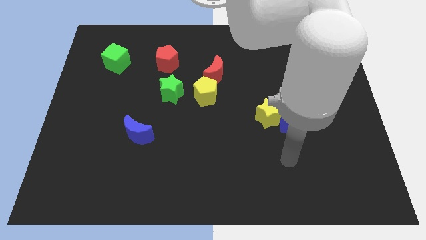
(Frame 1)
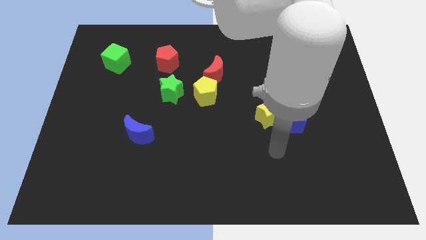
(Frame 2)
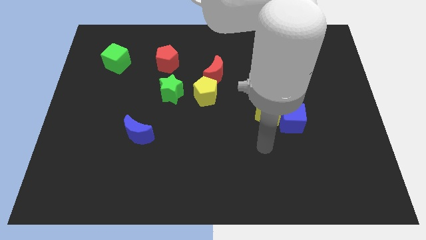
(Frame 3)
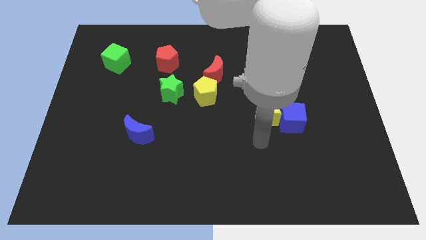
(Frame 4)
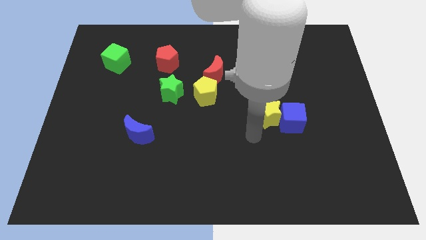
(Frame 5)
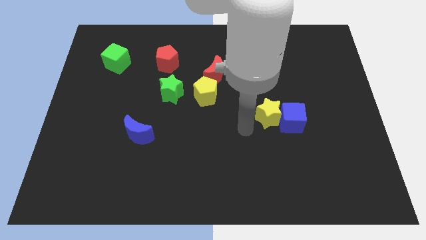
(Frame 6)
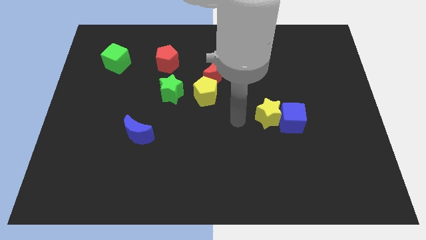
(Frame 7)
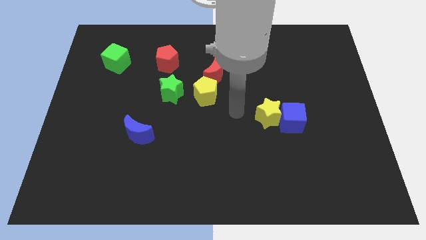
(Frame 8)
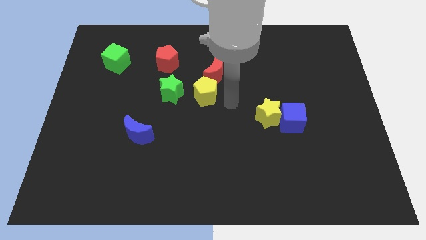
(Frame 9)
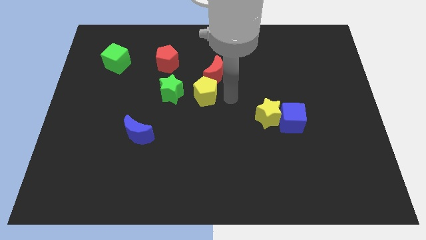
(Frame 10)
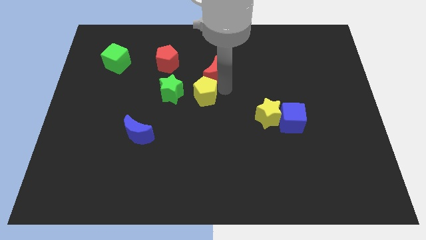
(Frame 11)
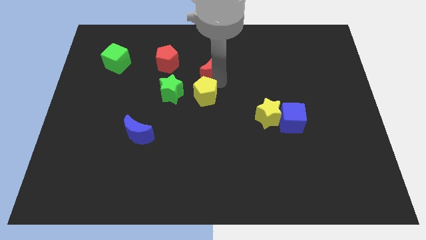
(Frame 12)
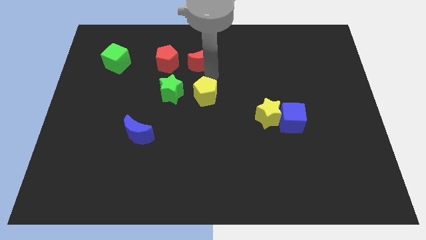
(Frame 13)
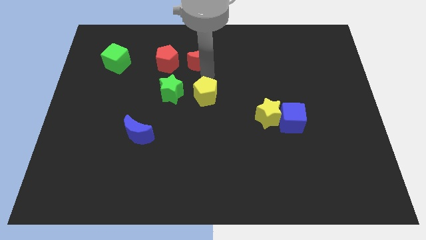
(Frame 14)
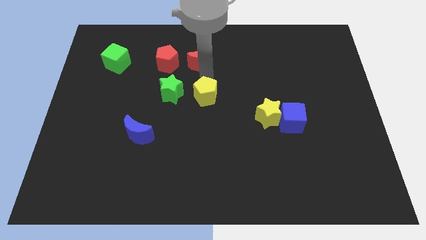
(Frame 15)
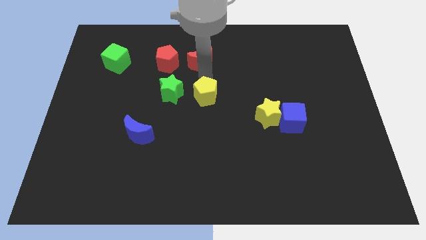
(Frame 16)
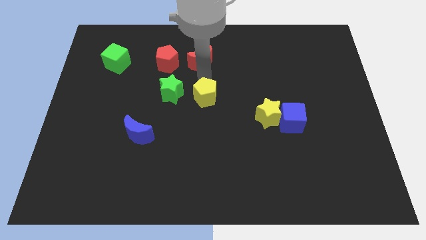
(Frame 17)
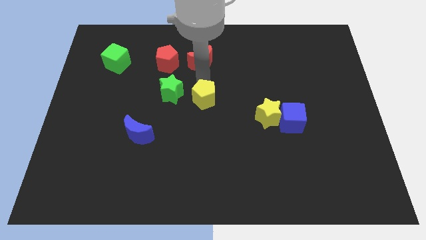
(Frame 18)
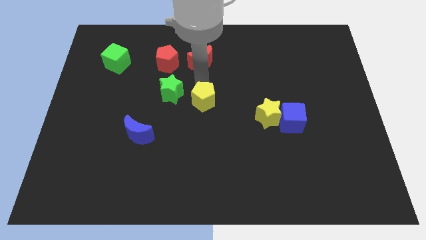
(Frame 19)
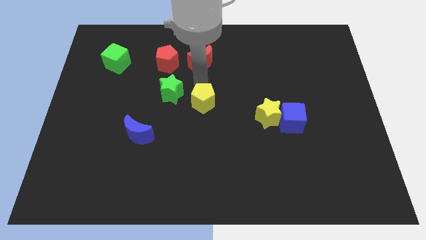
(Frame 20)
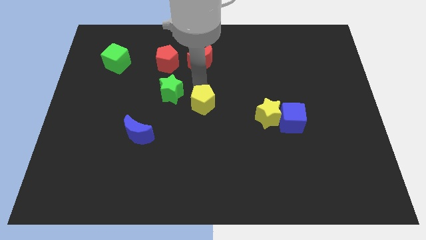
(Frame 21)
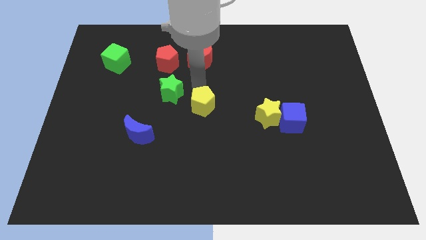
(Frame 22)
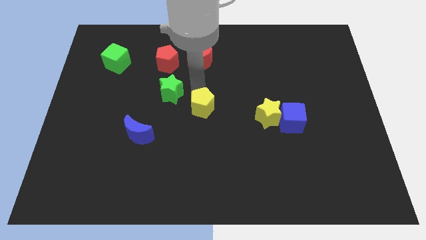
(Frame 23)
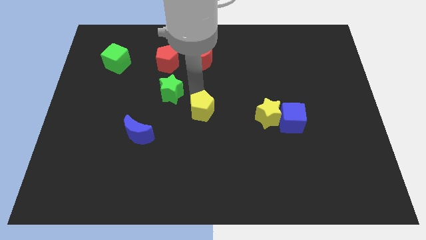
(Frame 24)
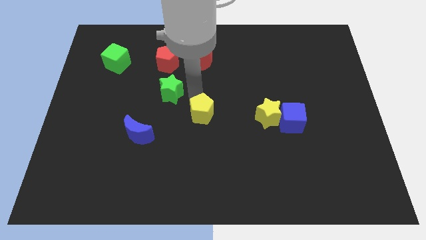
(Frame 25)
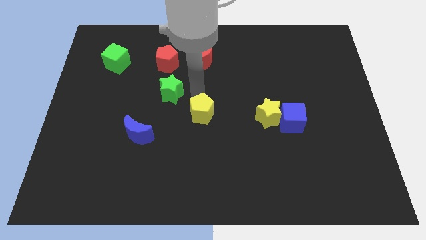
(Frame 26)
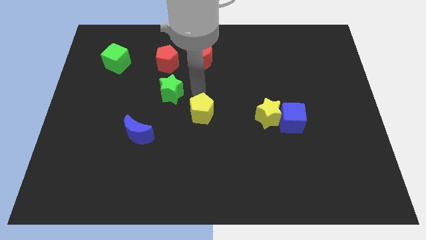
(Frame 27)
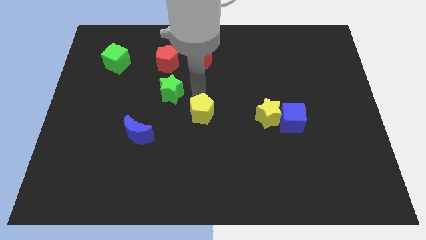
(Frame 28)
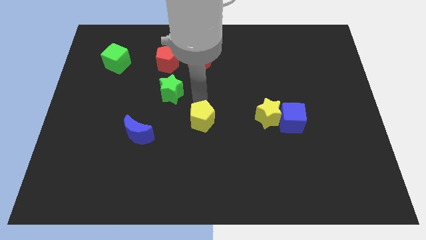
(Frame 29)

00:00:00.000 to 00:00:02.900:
slightly push the yellow pentagon down

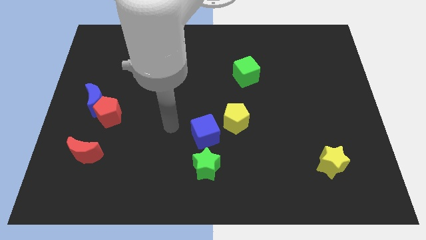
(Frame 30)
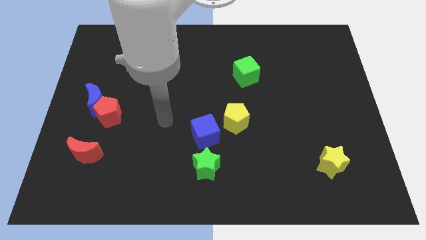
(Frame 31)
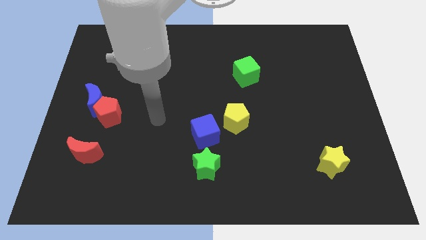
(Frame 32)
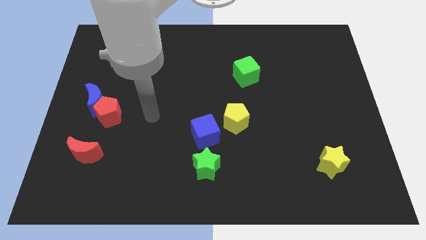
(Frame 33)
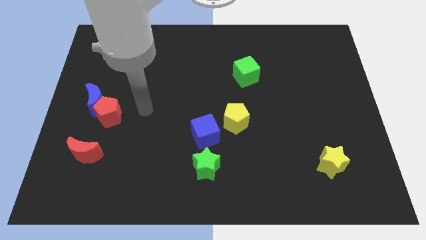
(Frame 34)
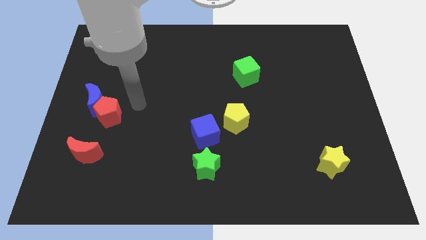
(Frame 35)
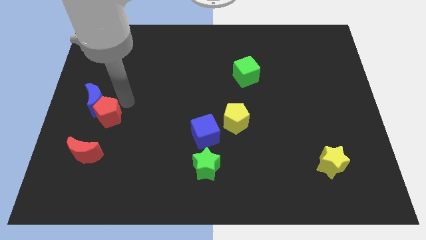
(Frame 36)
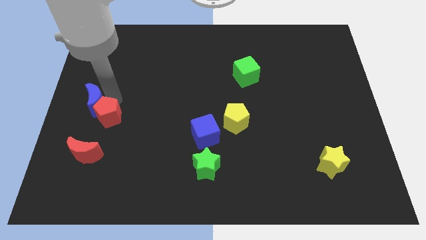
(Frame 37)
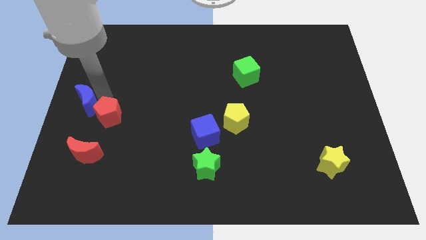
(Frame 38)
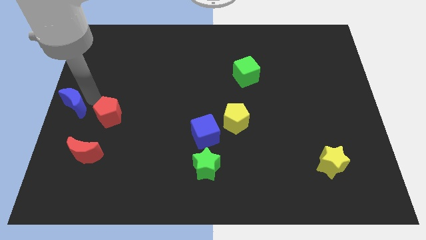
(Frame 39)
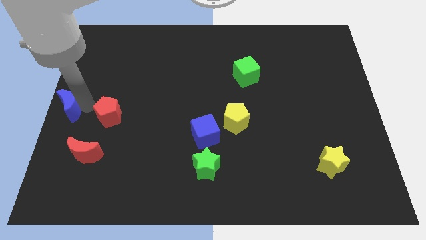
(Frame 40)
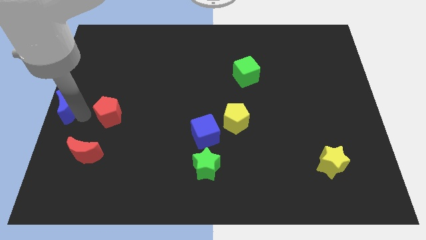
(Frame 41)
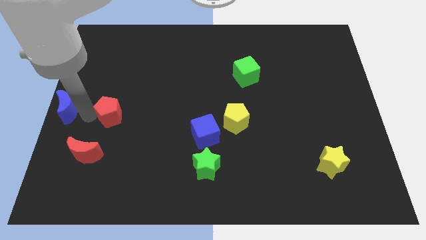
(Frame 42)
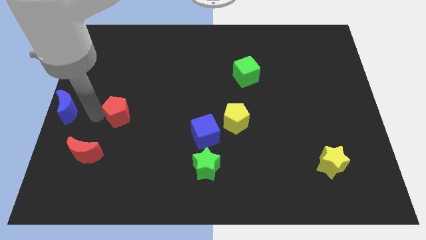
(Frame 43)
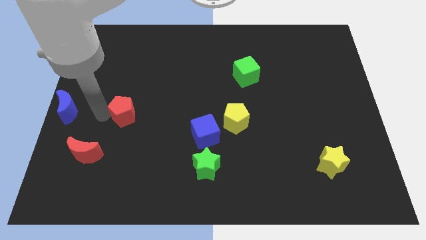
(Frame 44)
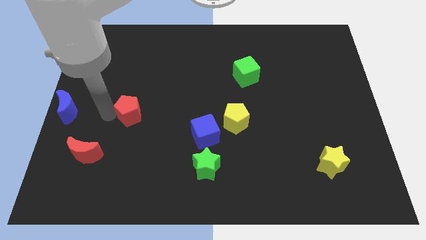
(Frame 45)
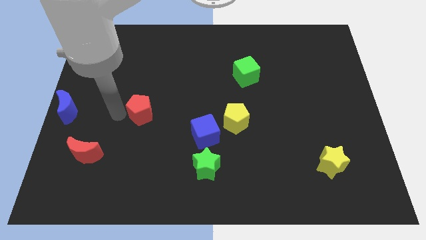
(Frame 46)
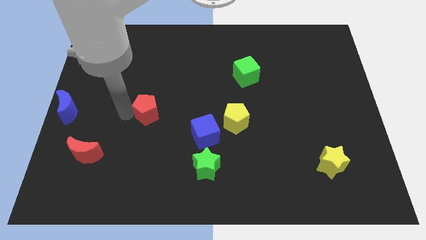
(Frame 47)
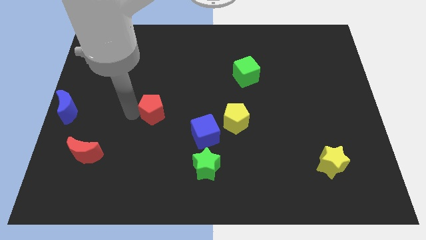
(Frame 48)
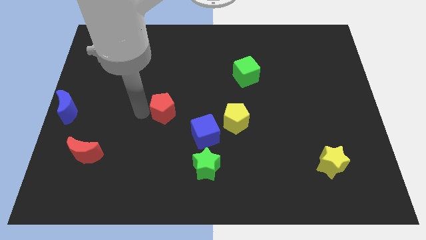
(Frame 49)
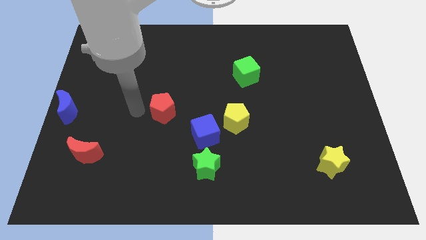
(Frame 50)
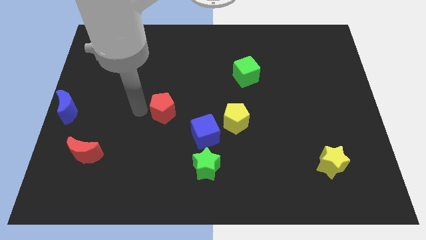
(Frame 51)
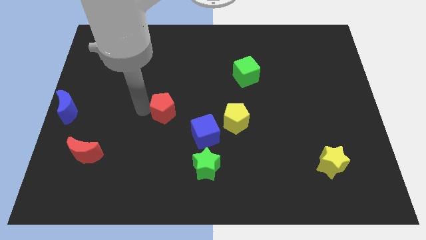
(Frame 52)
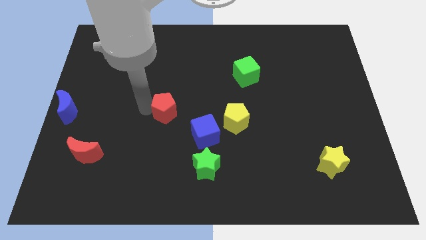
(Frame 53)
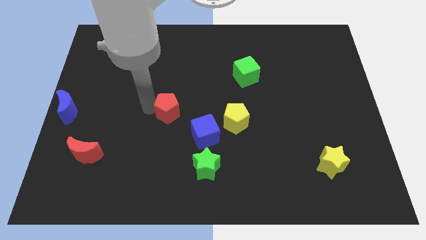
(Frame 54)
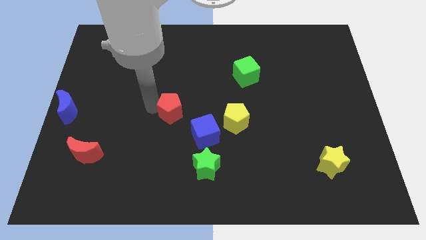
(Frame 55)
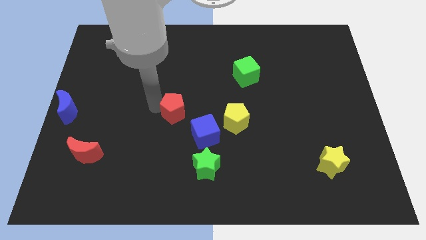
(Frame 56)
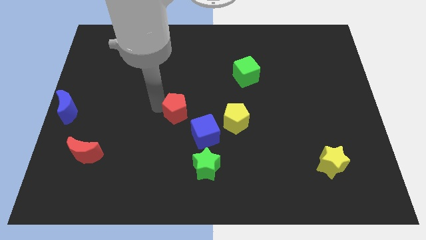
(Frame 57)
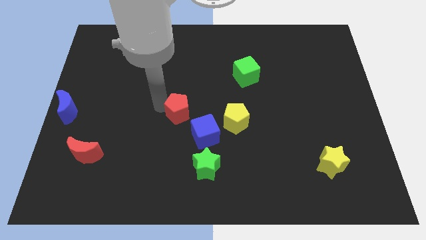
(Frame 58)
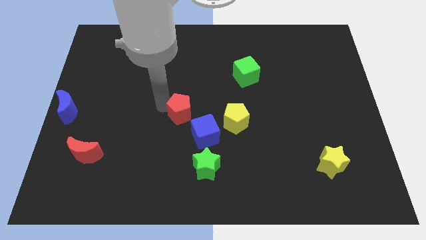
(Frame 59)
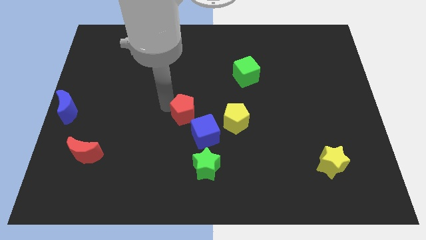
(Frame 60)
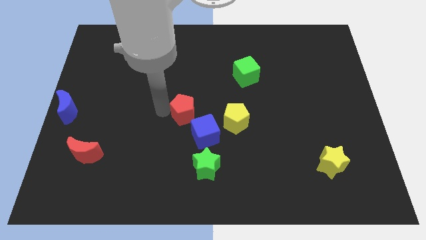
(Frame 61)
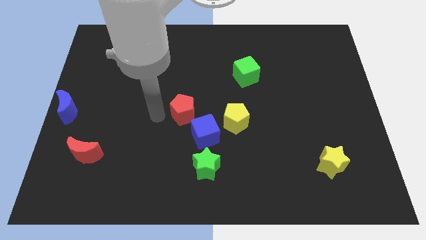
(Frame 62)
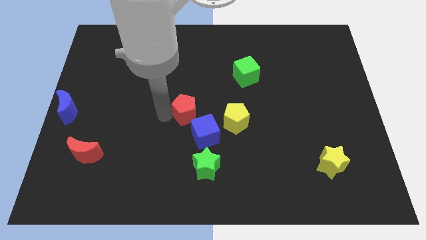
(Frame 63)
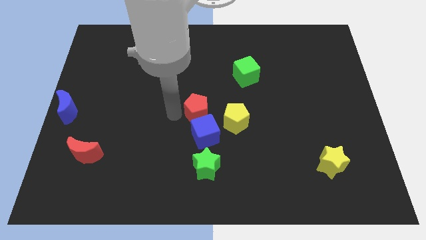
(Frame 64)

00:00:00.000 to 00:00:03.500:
move the red pentagon to the right

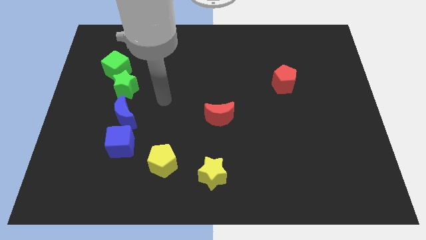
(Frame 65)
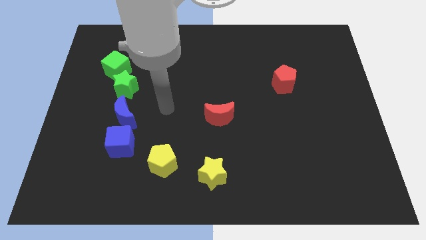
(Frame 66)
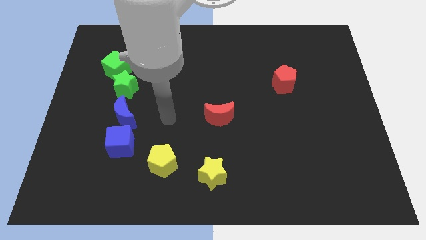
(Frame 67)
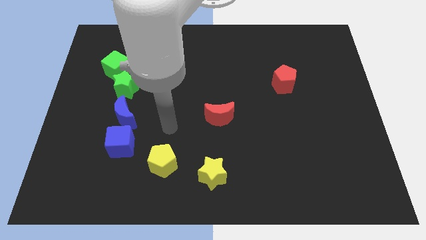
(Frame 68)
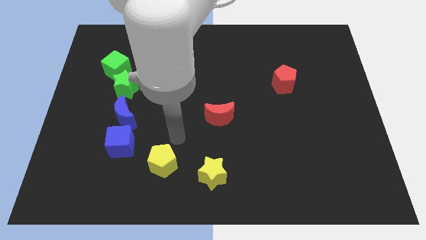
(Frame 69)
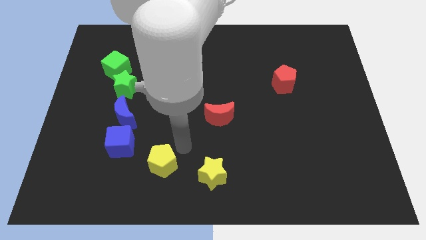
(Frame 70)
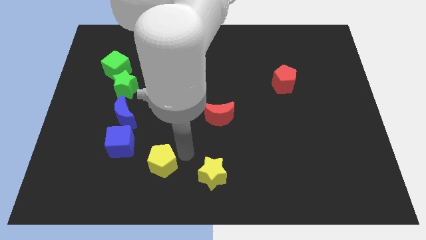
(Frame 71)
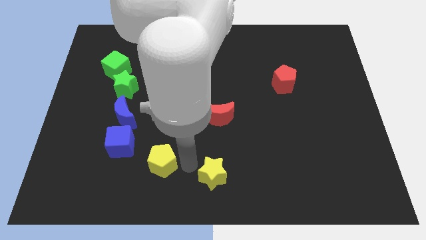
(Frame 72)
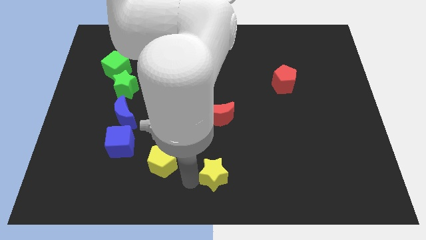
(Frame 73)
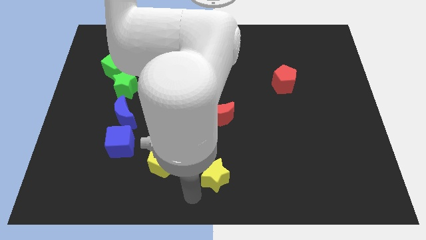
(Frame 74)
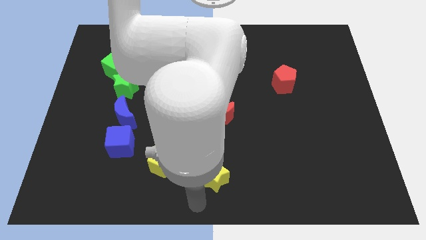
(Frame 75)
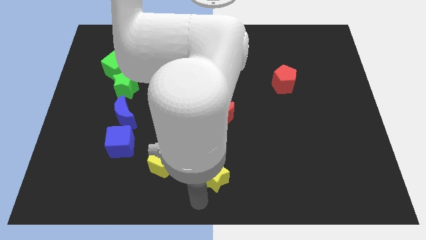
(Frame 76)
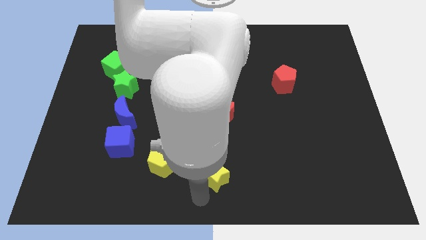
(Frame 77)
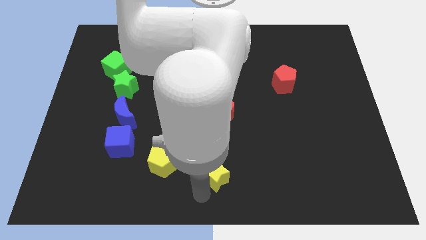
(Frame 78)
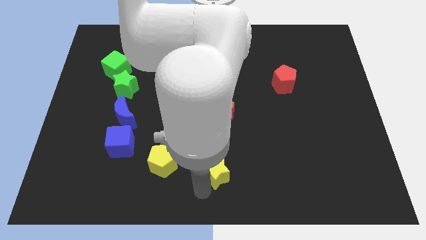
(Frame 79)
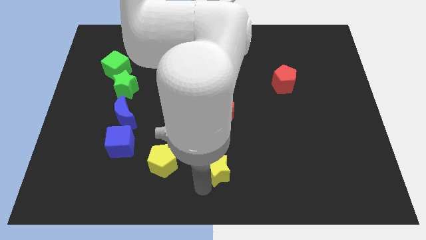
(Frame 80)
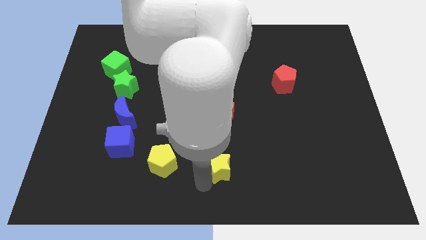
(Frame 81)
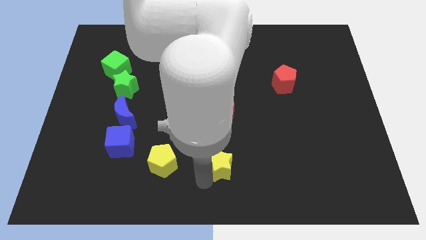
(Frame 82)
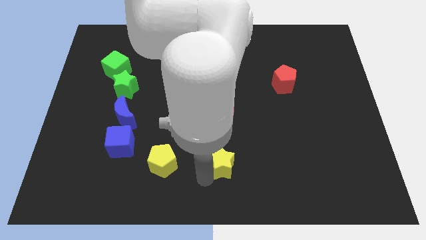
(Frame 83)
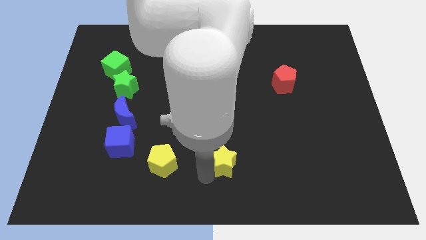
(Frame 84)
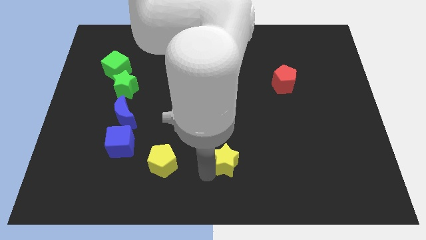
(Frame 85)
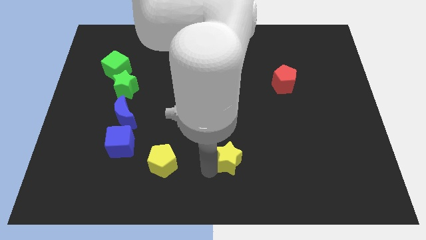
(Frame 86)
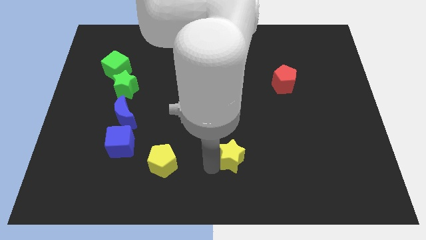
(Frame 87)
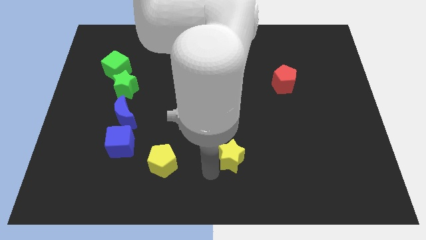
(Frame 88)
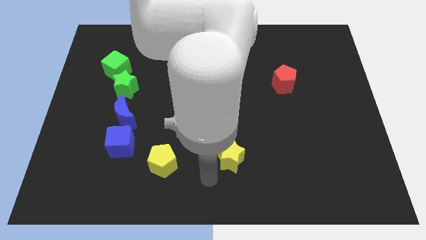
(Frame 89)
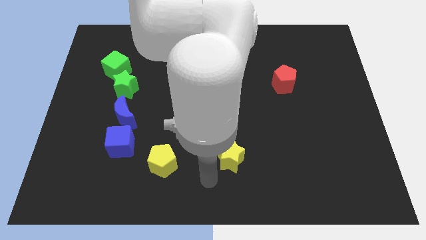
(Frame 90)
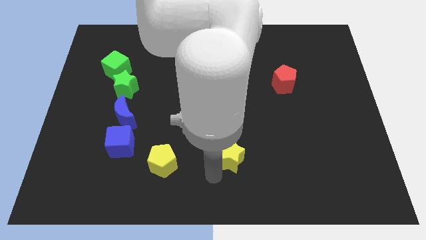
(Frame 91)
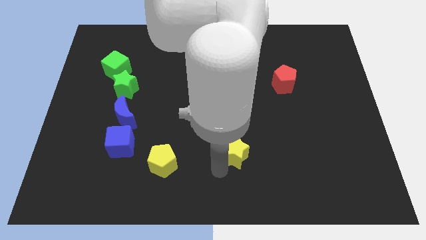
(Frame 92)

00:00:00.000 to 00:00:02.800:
slide the yellow star a bit upwards and then right
